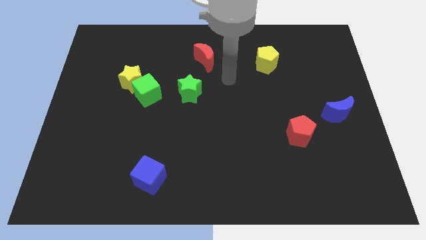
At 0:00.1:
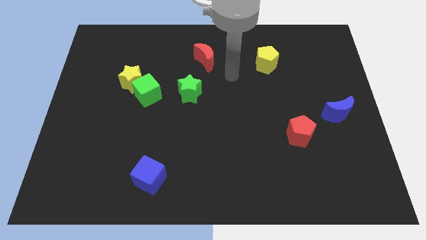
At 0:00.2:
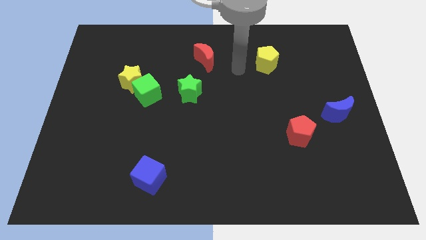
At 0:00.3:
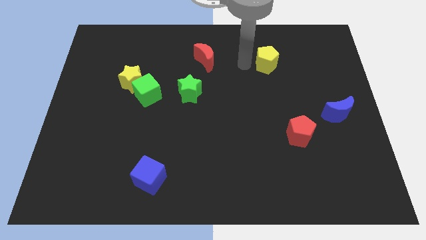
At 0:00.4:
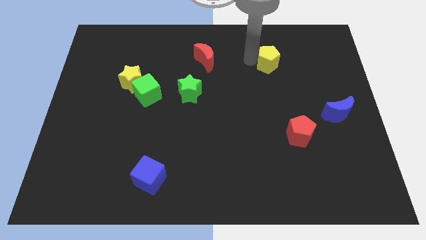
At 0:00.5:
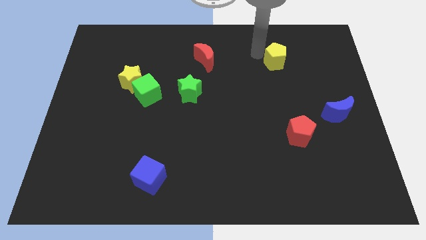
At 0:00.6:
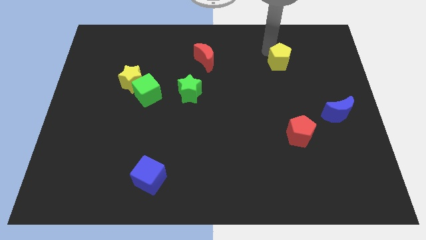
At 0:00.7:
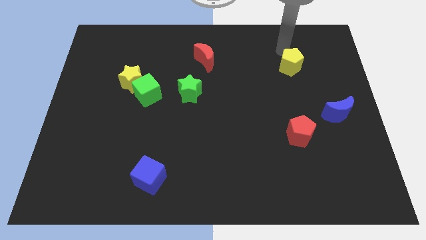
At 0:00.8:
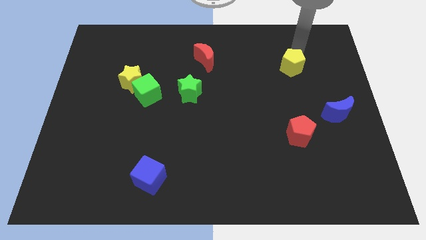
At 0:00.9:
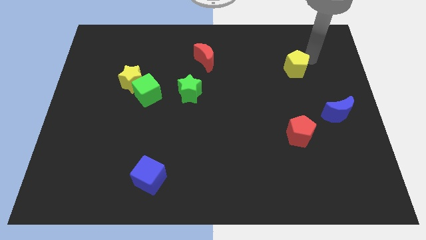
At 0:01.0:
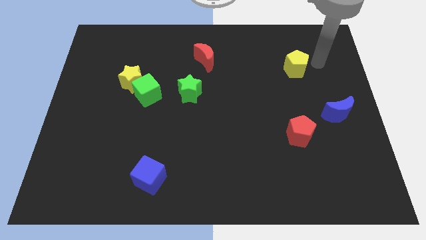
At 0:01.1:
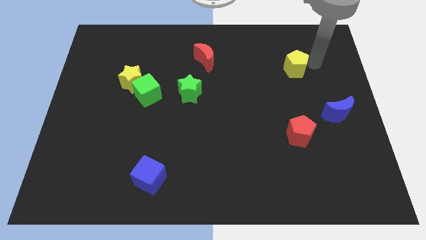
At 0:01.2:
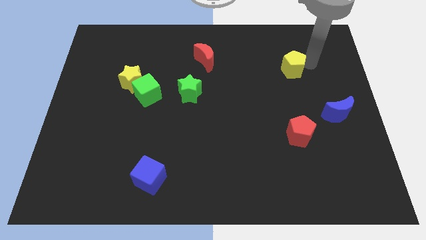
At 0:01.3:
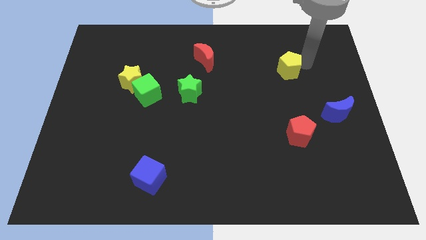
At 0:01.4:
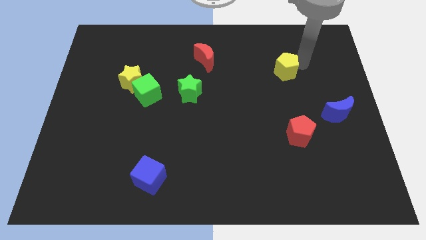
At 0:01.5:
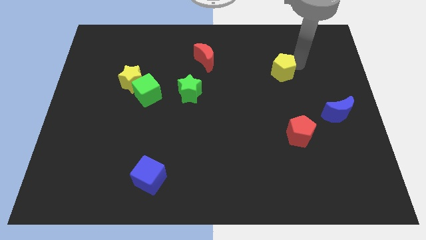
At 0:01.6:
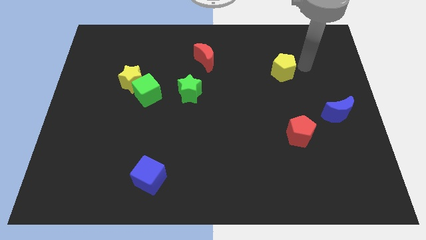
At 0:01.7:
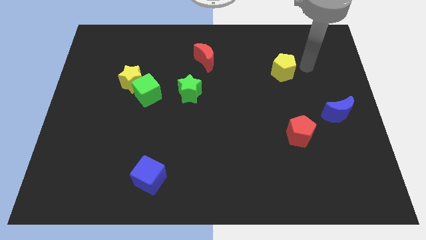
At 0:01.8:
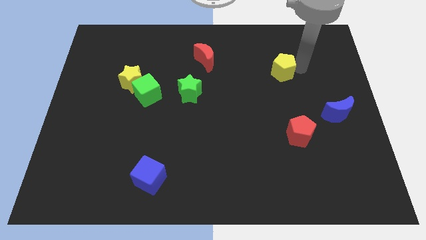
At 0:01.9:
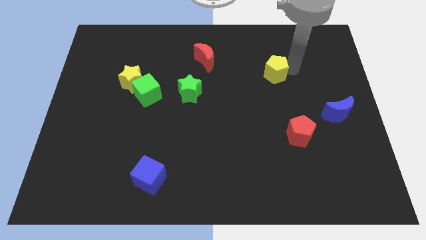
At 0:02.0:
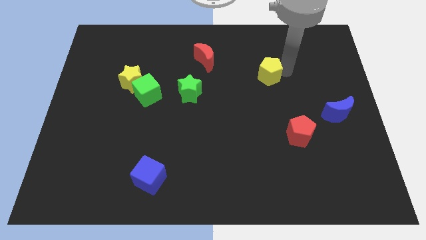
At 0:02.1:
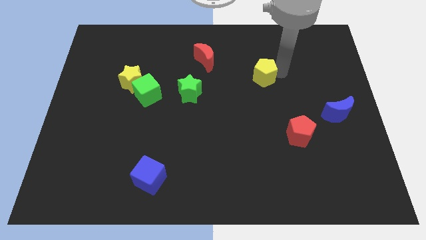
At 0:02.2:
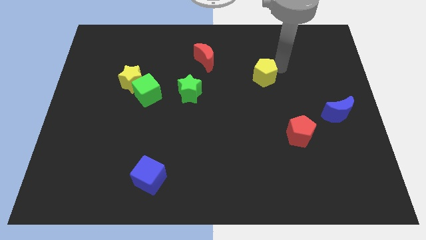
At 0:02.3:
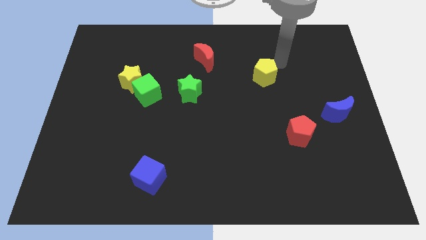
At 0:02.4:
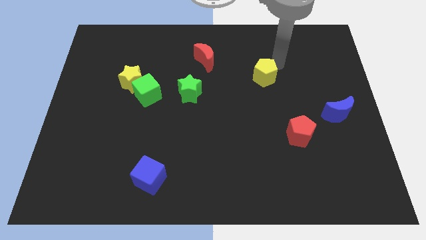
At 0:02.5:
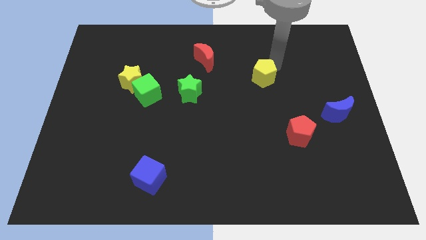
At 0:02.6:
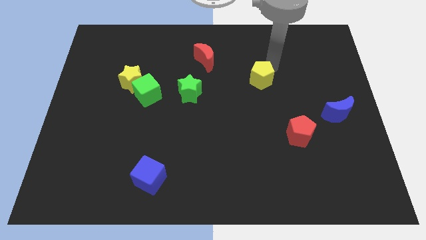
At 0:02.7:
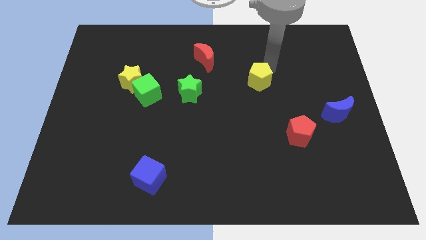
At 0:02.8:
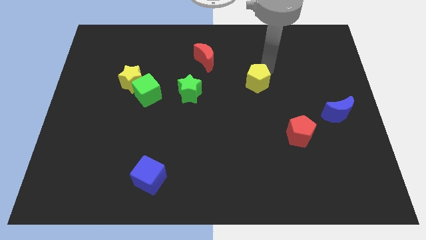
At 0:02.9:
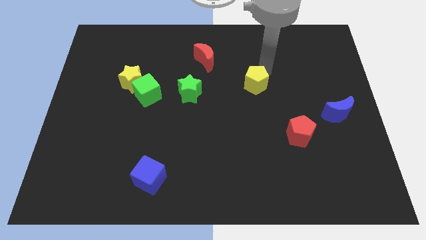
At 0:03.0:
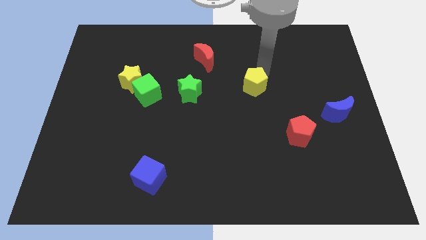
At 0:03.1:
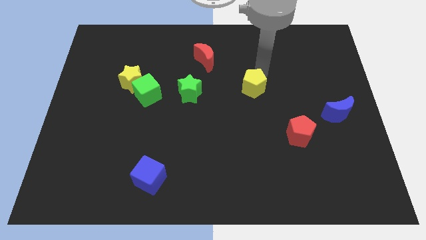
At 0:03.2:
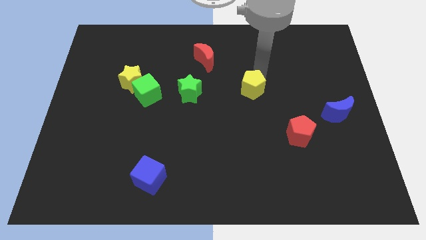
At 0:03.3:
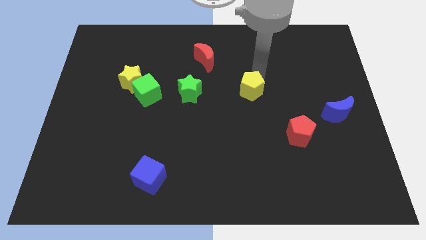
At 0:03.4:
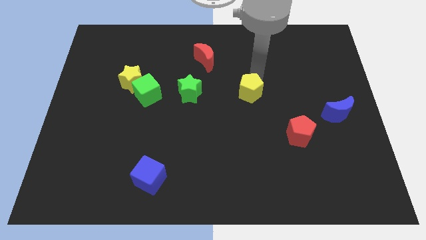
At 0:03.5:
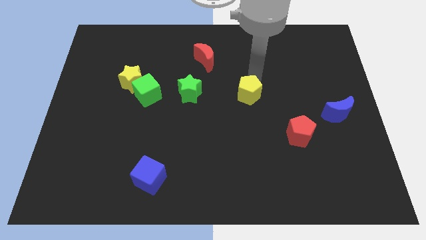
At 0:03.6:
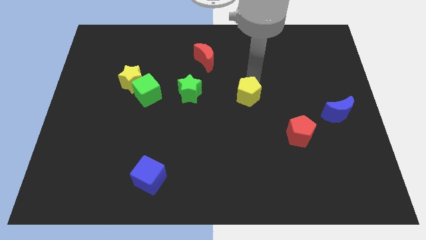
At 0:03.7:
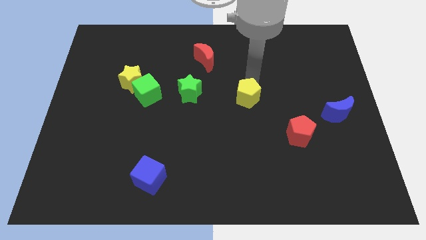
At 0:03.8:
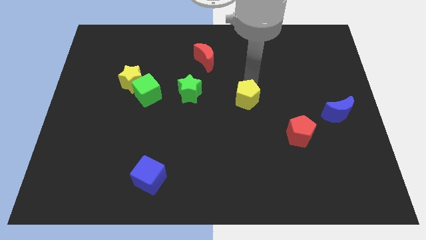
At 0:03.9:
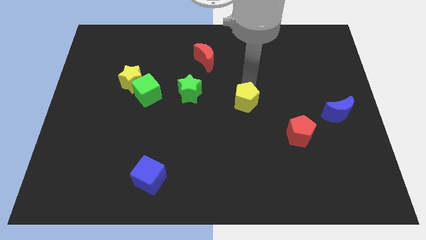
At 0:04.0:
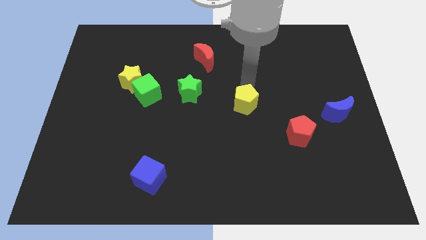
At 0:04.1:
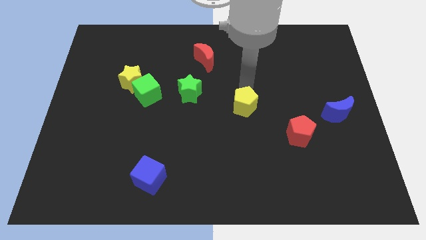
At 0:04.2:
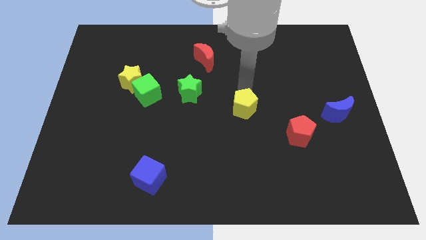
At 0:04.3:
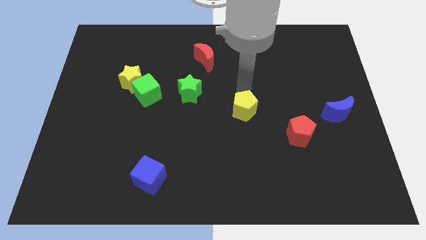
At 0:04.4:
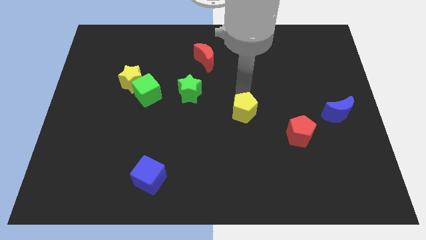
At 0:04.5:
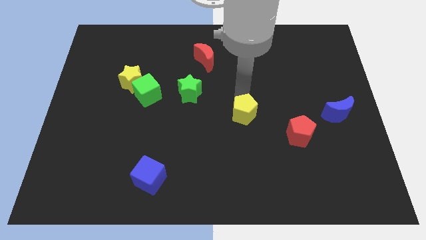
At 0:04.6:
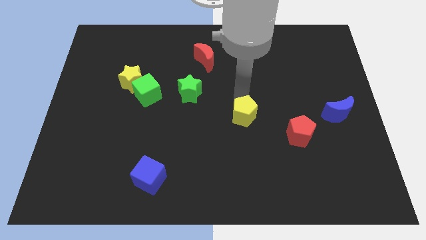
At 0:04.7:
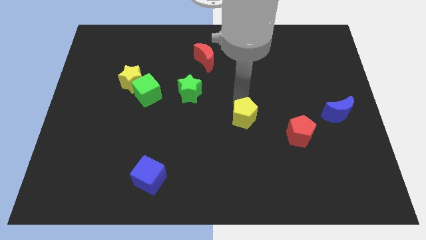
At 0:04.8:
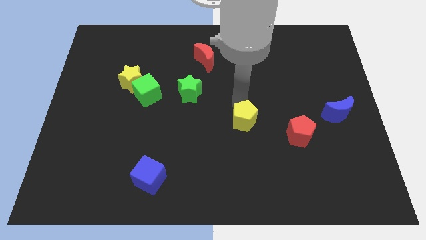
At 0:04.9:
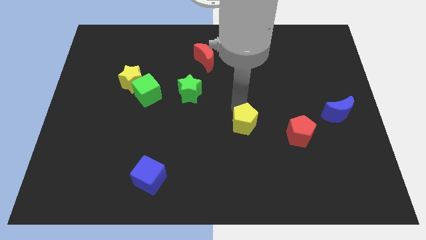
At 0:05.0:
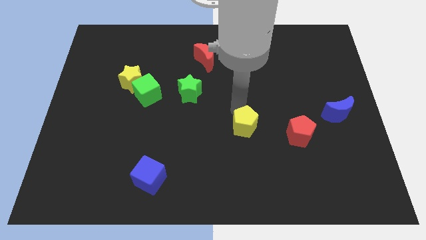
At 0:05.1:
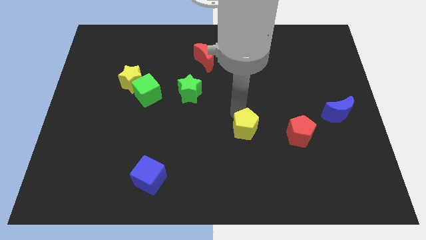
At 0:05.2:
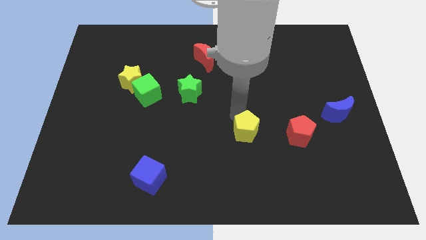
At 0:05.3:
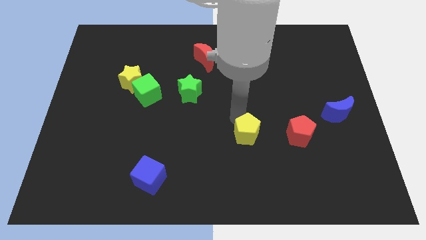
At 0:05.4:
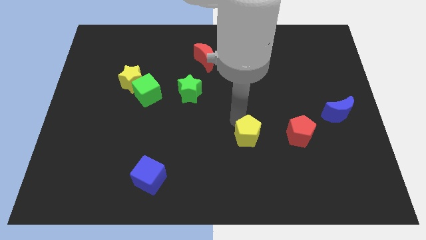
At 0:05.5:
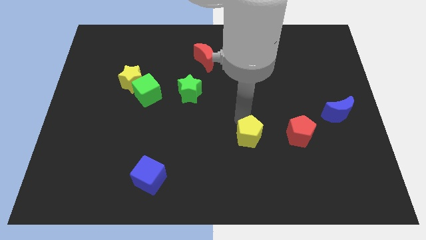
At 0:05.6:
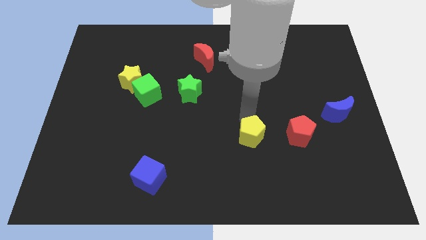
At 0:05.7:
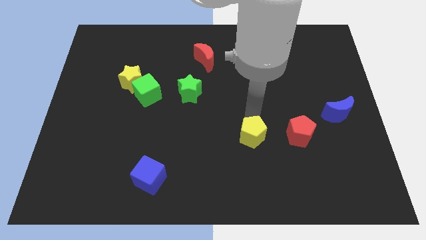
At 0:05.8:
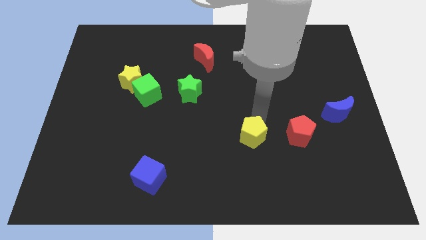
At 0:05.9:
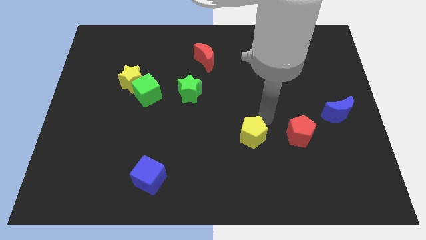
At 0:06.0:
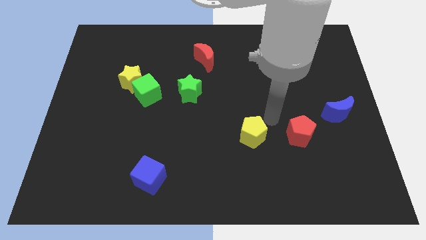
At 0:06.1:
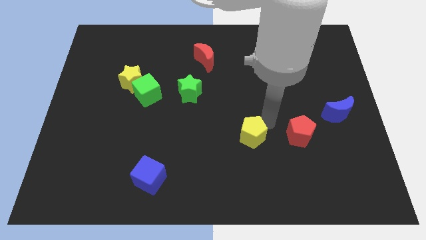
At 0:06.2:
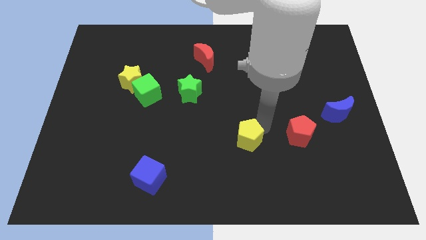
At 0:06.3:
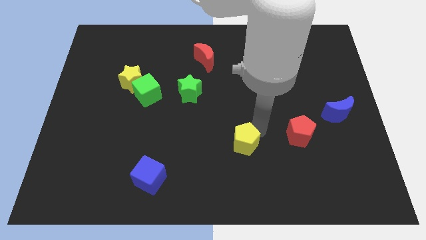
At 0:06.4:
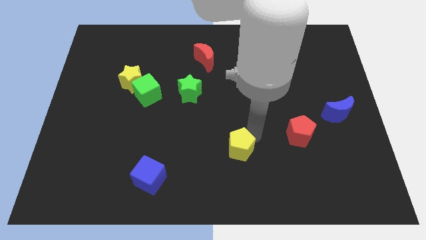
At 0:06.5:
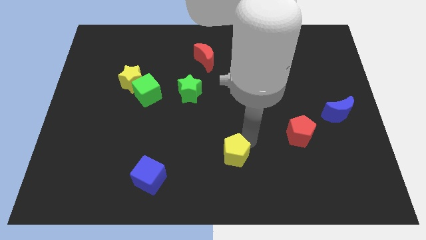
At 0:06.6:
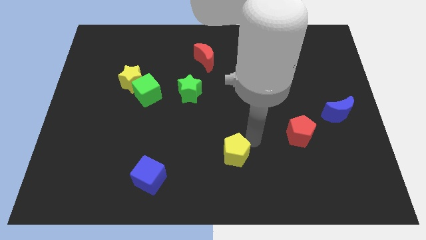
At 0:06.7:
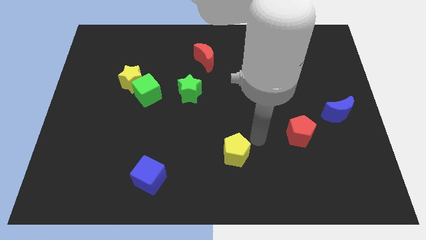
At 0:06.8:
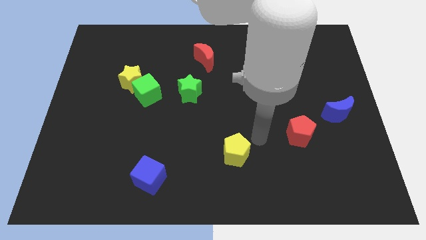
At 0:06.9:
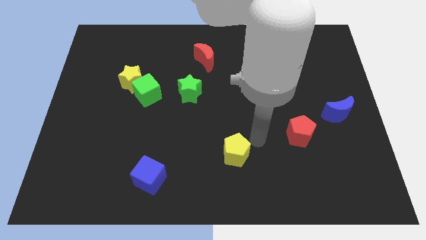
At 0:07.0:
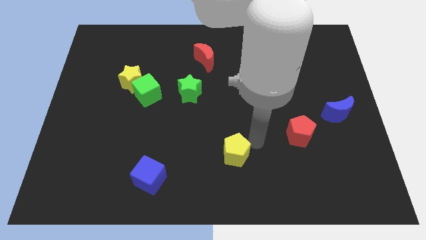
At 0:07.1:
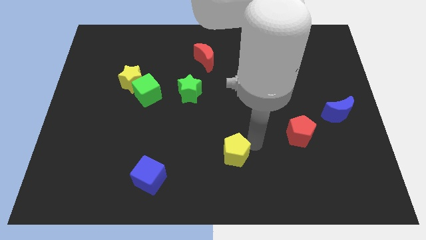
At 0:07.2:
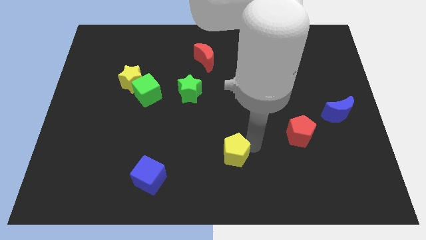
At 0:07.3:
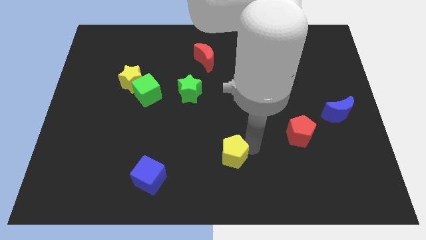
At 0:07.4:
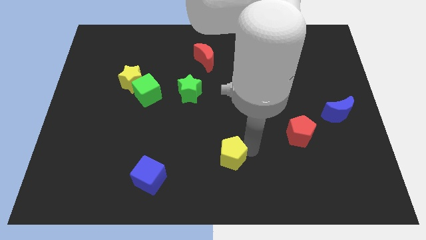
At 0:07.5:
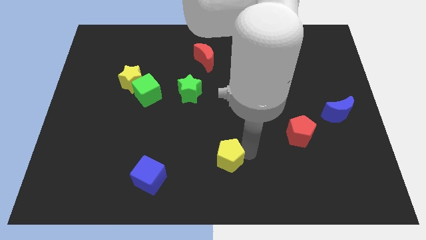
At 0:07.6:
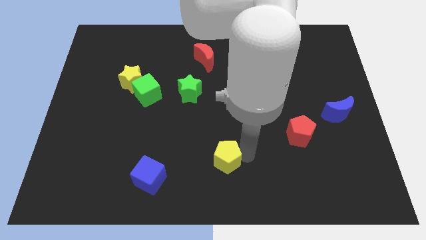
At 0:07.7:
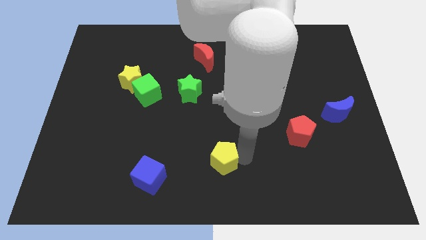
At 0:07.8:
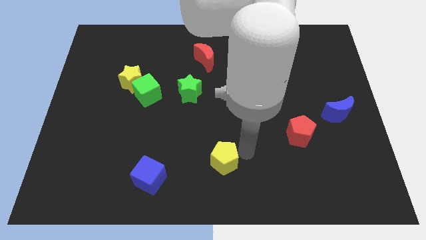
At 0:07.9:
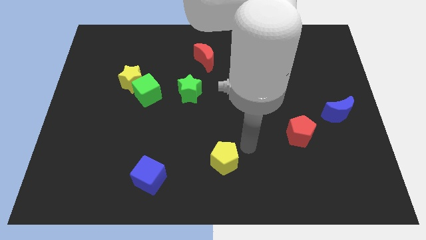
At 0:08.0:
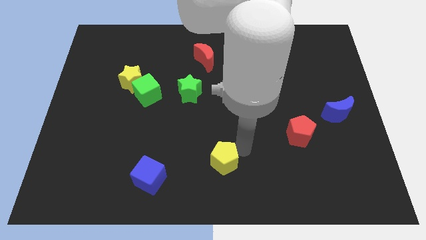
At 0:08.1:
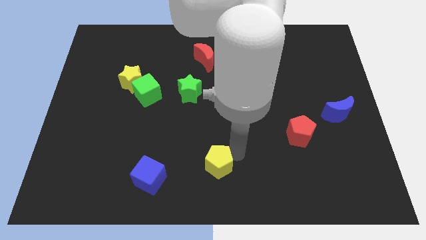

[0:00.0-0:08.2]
slide the yellow pentagon to the right side of the blue cube

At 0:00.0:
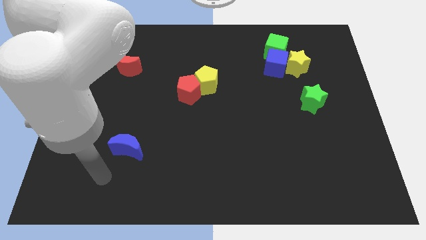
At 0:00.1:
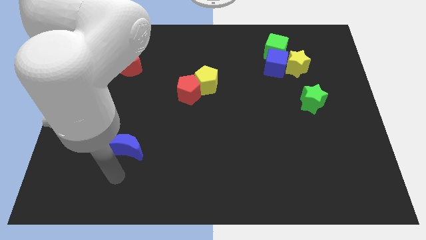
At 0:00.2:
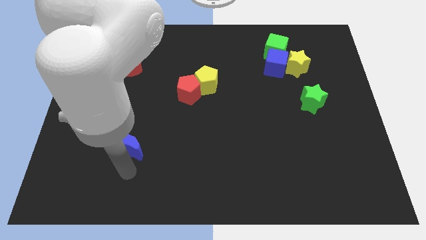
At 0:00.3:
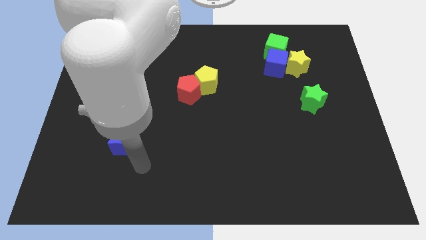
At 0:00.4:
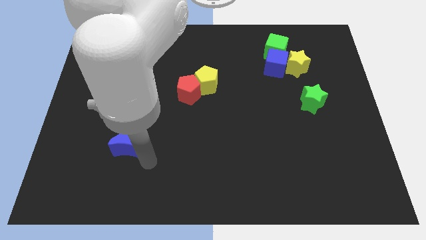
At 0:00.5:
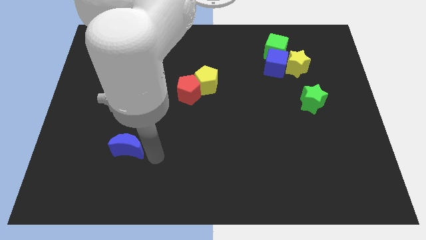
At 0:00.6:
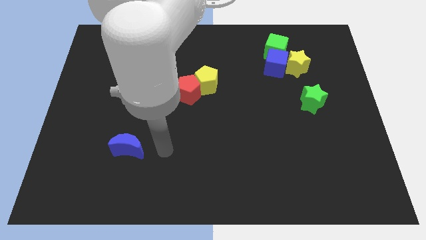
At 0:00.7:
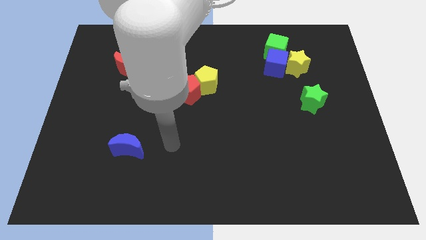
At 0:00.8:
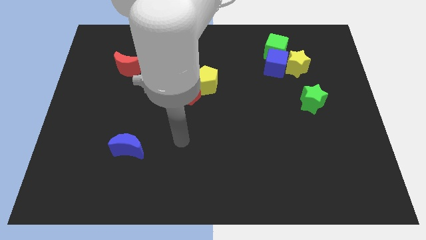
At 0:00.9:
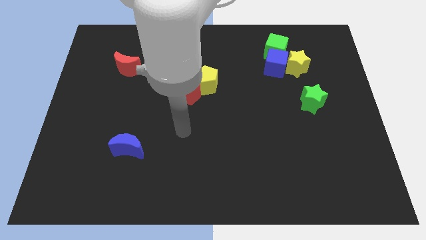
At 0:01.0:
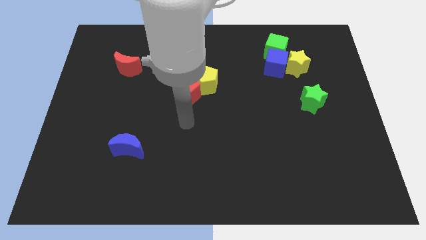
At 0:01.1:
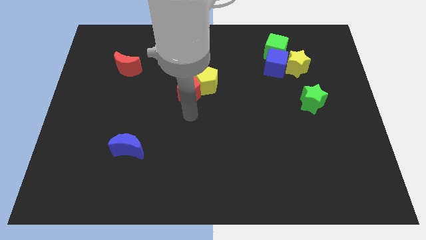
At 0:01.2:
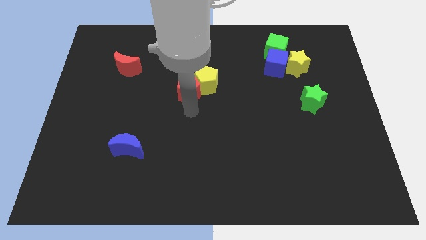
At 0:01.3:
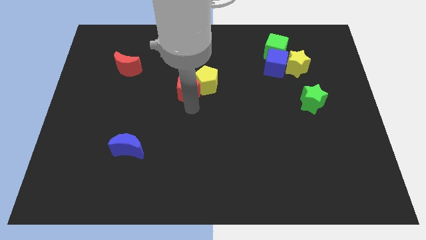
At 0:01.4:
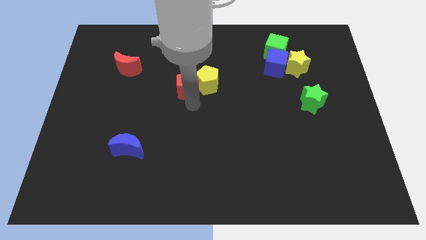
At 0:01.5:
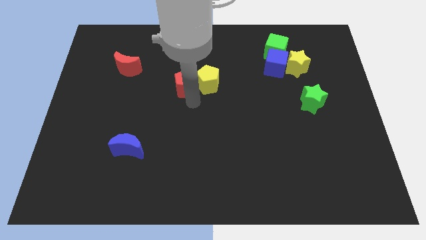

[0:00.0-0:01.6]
move the red pentagon to the top left side of the yellow pentagon
